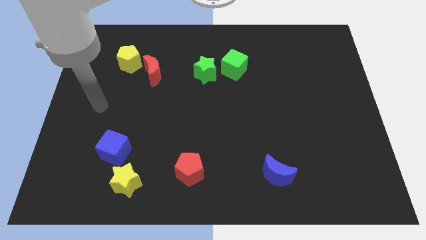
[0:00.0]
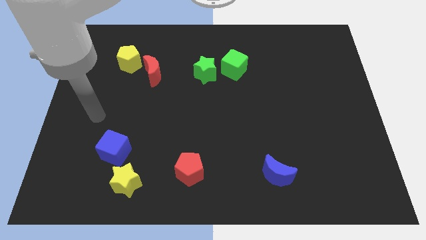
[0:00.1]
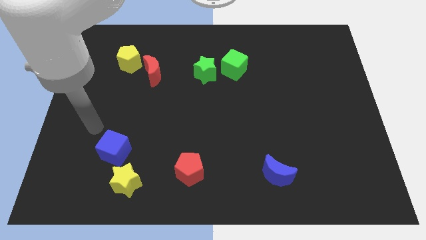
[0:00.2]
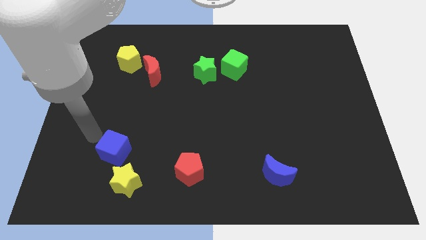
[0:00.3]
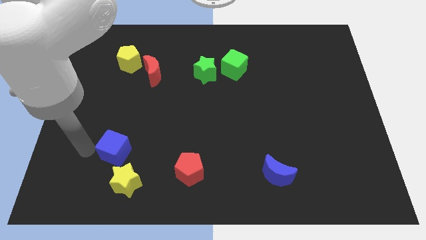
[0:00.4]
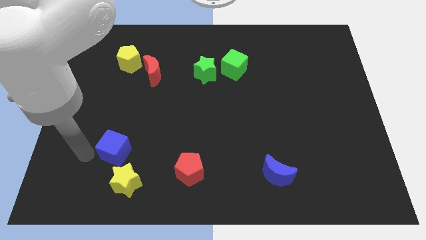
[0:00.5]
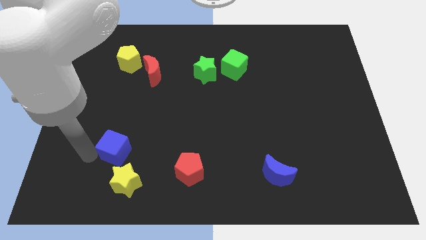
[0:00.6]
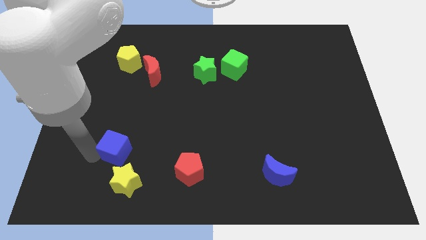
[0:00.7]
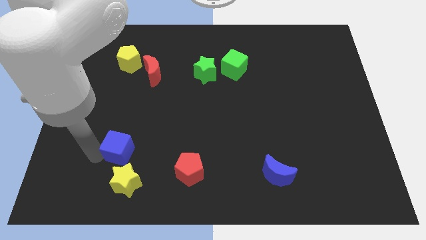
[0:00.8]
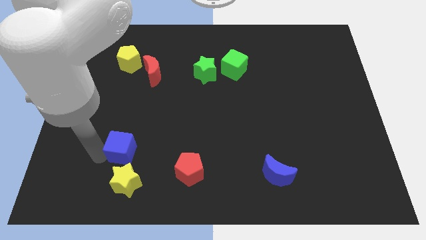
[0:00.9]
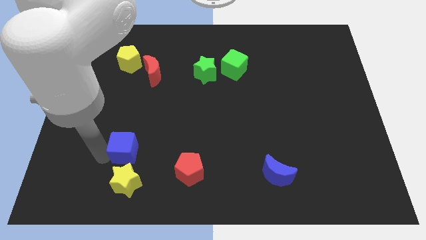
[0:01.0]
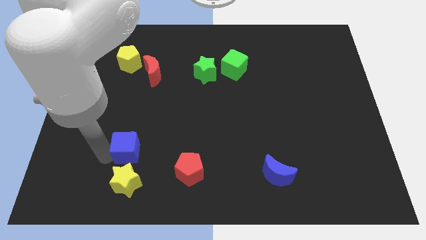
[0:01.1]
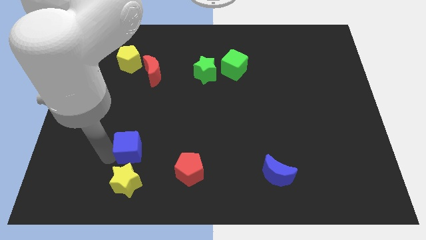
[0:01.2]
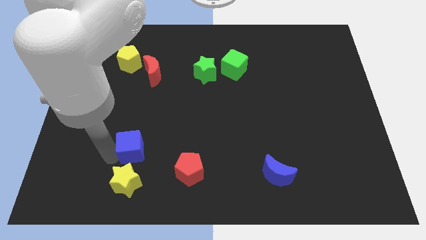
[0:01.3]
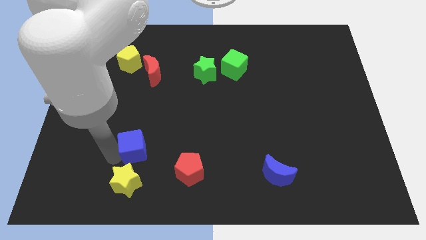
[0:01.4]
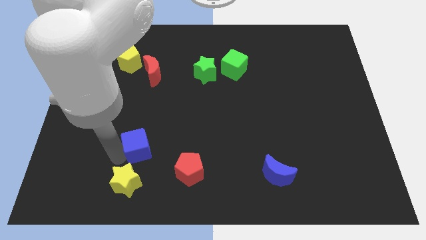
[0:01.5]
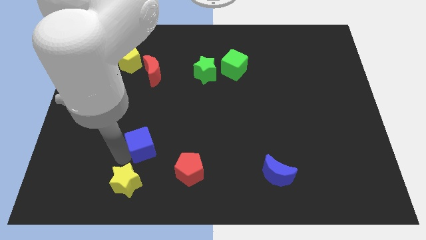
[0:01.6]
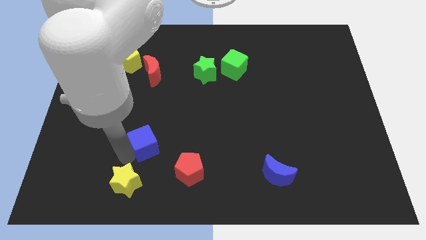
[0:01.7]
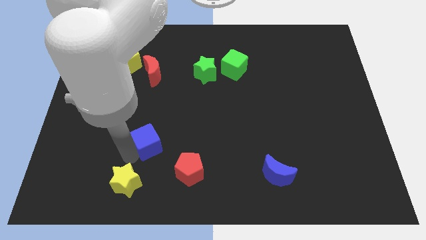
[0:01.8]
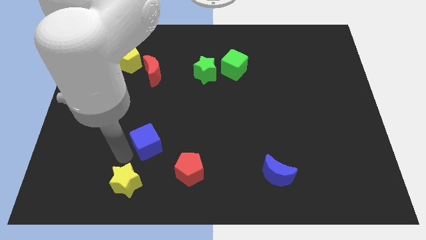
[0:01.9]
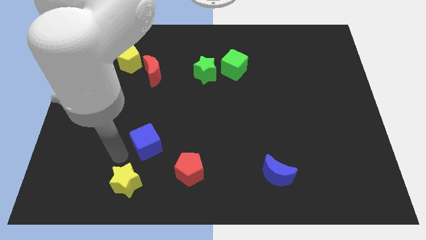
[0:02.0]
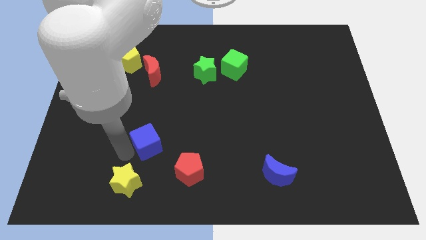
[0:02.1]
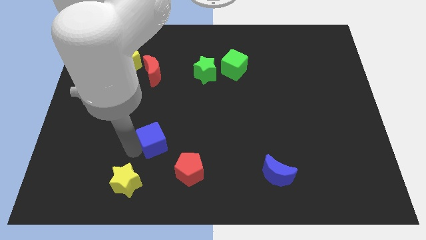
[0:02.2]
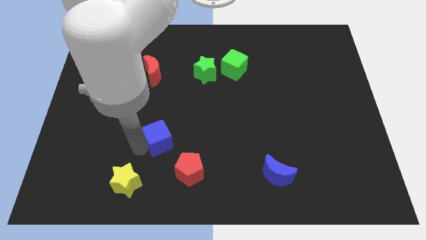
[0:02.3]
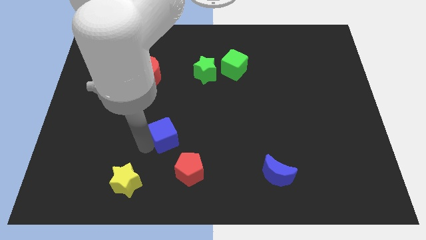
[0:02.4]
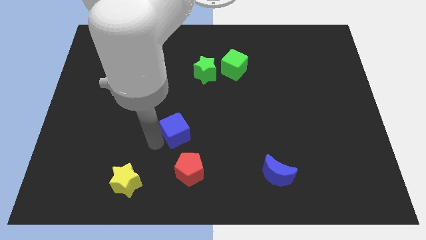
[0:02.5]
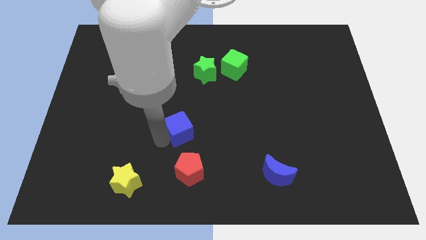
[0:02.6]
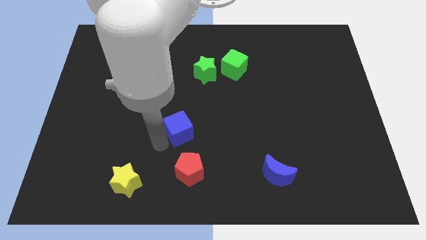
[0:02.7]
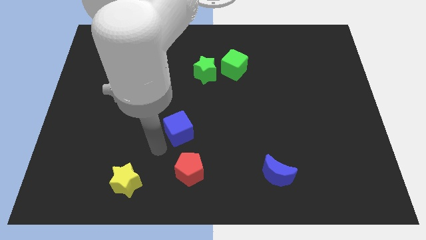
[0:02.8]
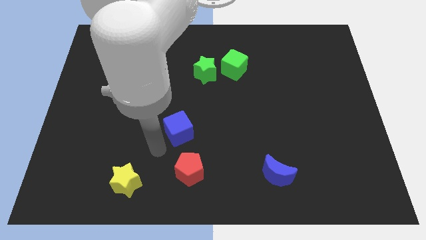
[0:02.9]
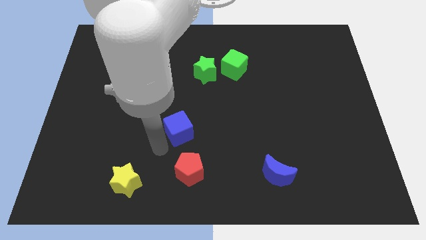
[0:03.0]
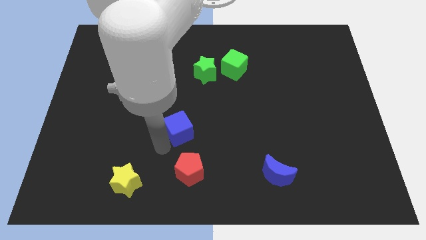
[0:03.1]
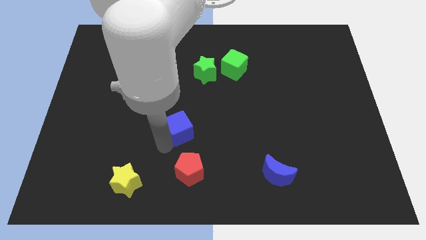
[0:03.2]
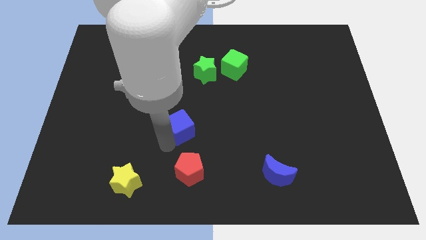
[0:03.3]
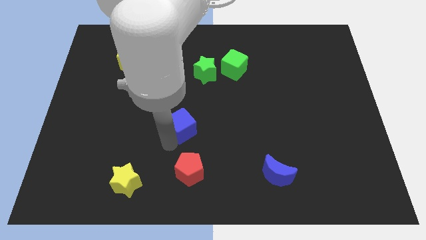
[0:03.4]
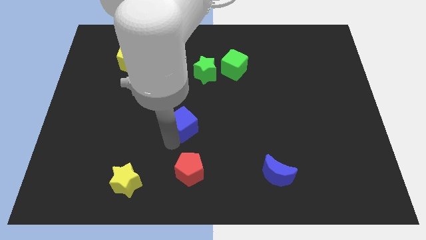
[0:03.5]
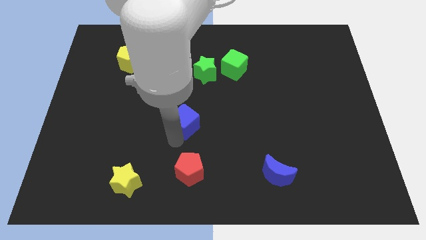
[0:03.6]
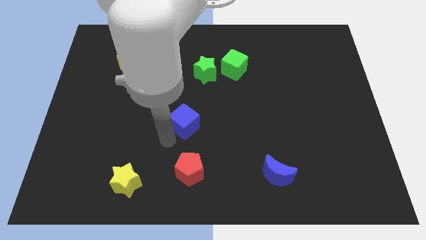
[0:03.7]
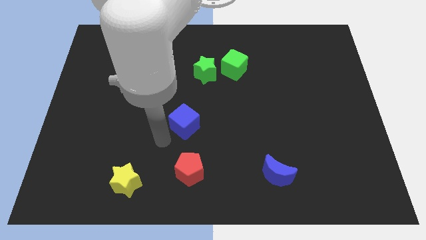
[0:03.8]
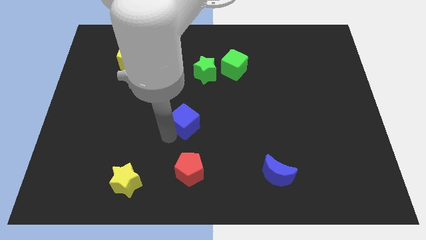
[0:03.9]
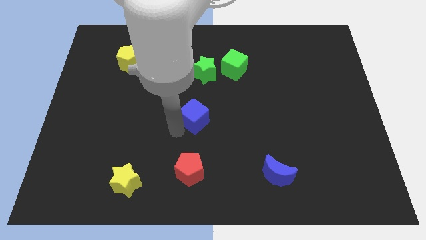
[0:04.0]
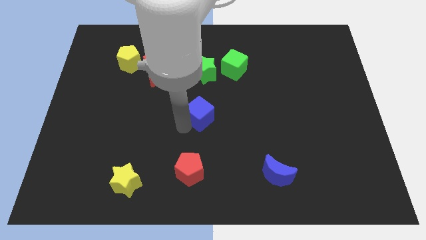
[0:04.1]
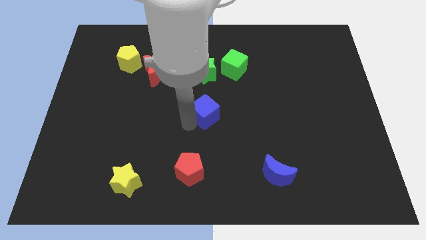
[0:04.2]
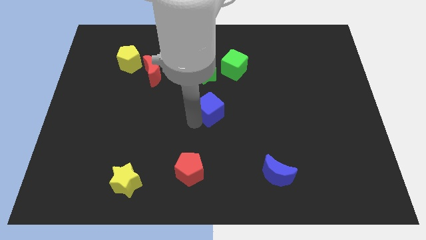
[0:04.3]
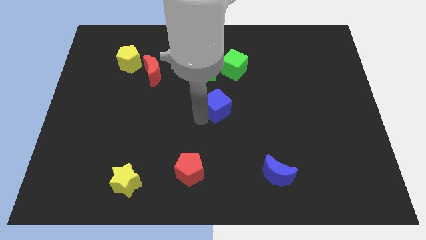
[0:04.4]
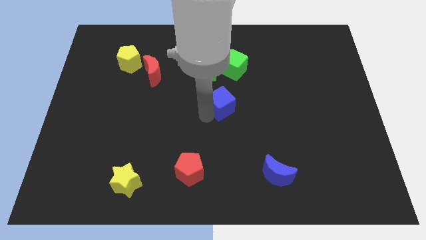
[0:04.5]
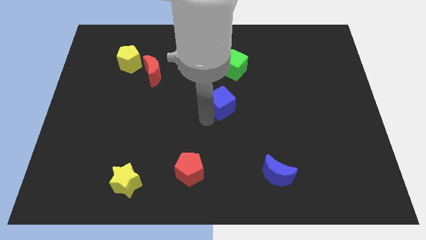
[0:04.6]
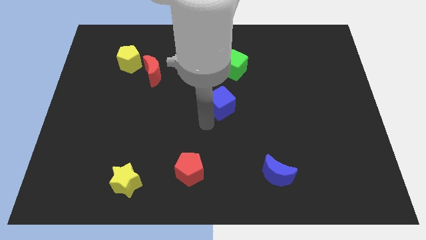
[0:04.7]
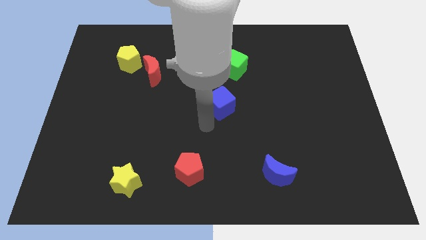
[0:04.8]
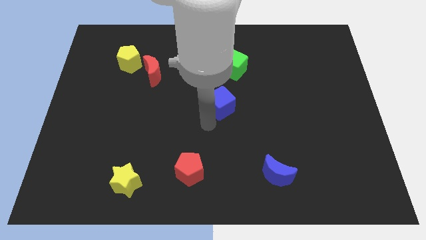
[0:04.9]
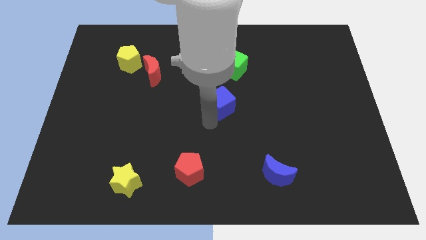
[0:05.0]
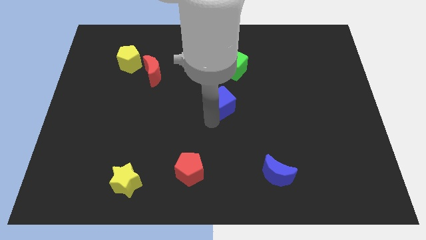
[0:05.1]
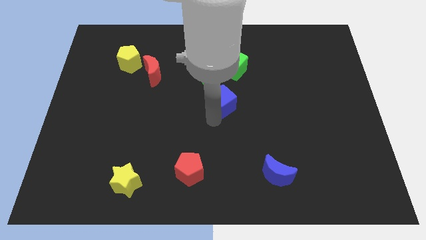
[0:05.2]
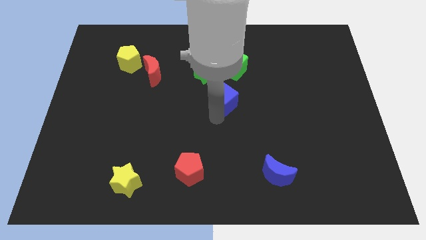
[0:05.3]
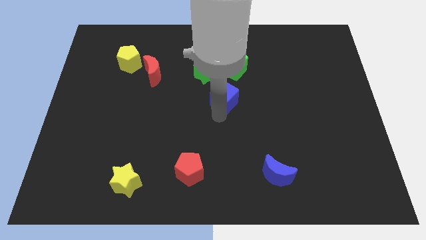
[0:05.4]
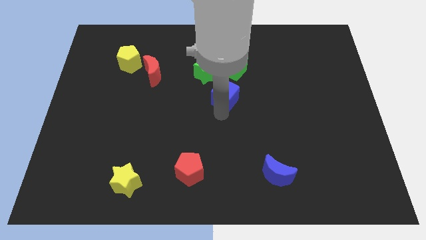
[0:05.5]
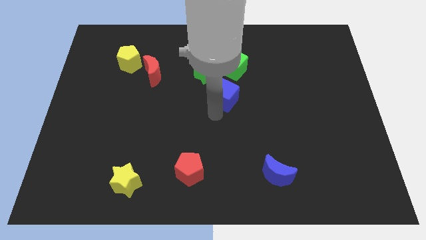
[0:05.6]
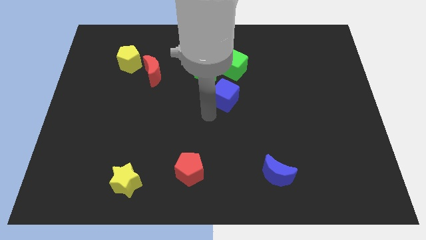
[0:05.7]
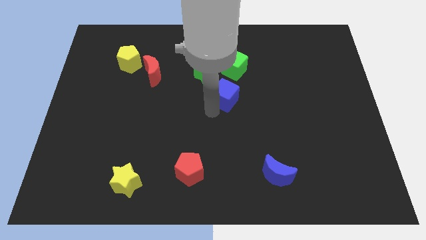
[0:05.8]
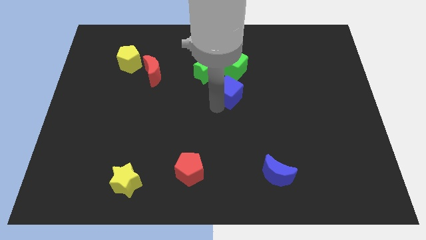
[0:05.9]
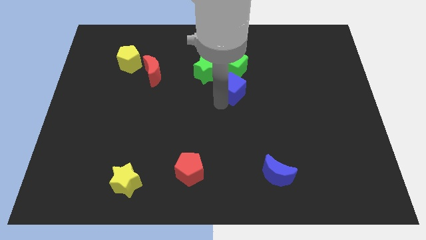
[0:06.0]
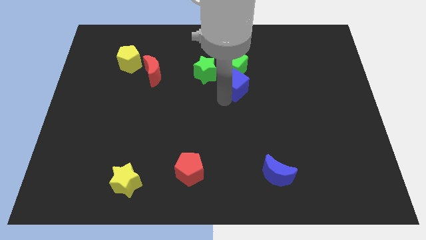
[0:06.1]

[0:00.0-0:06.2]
slide the blue cube to the right of the green star

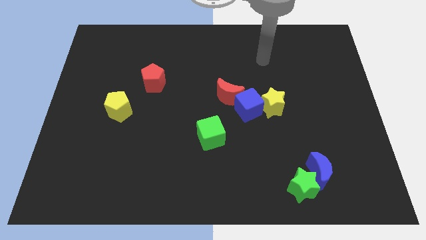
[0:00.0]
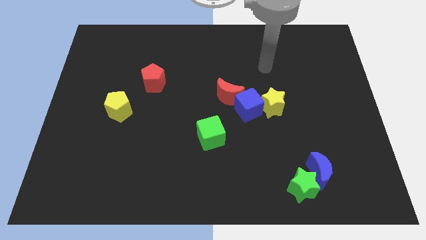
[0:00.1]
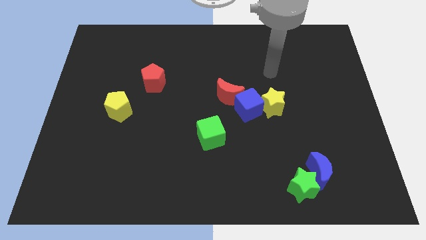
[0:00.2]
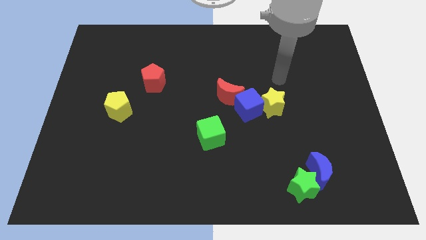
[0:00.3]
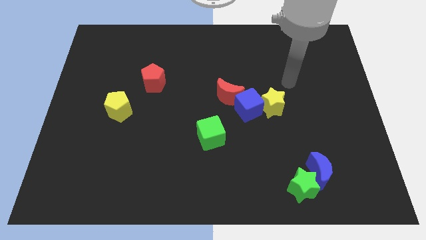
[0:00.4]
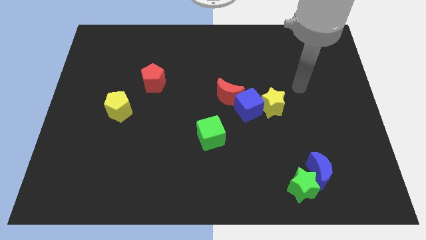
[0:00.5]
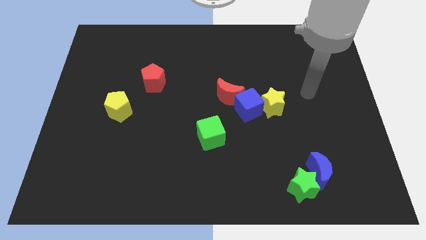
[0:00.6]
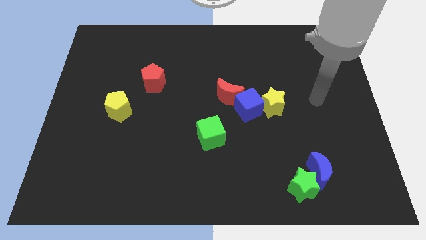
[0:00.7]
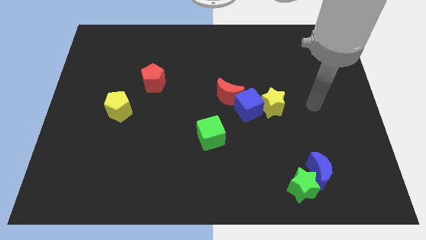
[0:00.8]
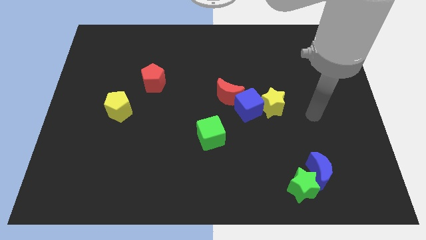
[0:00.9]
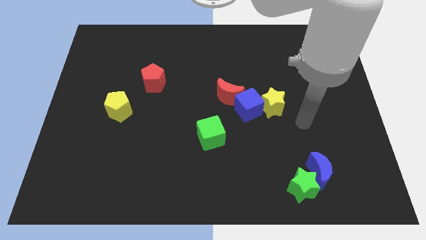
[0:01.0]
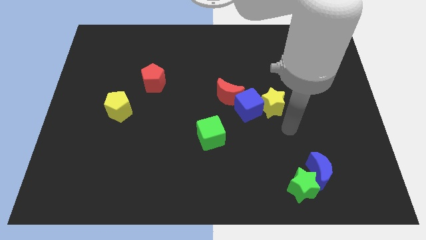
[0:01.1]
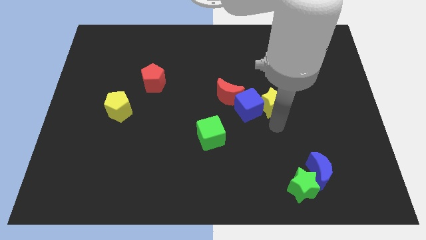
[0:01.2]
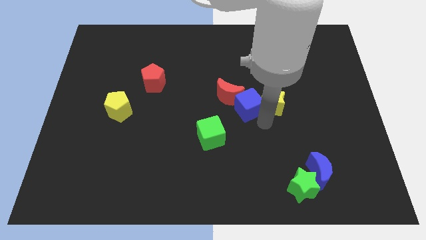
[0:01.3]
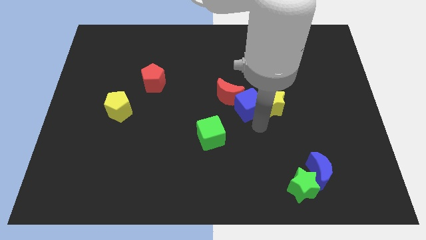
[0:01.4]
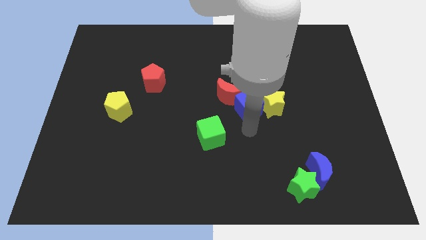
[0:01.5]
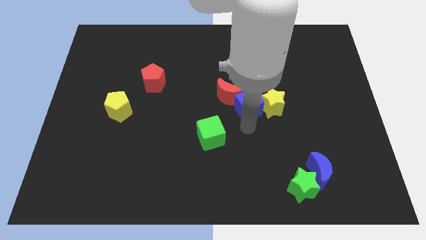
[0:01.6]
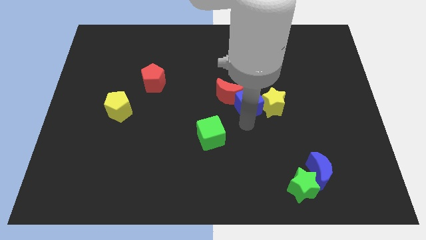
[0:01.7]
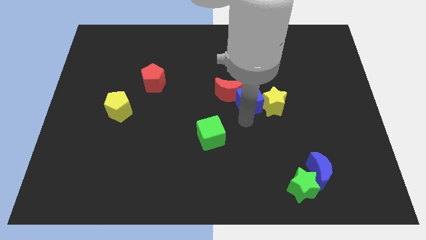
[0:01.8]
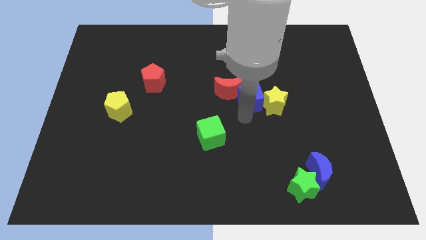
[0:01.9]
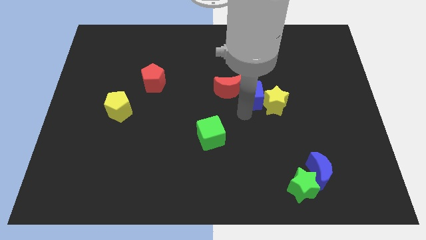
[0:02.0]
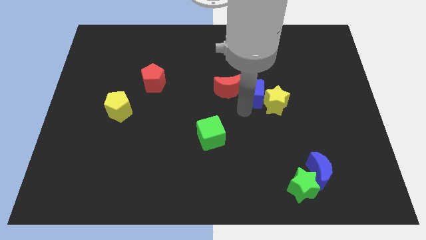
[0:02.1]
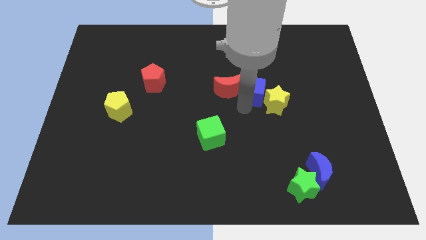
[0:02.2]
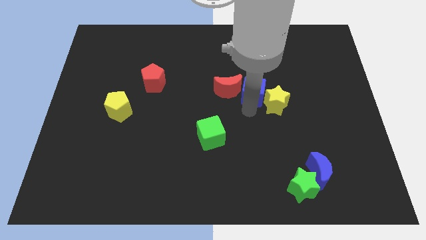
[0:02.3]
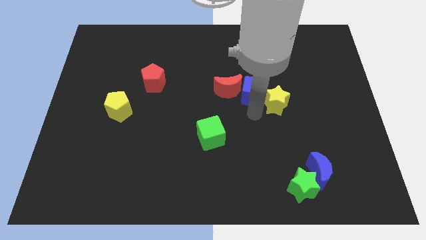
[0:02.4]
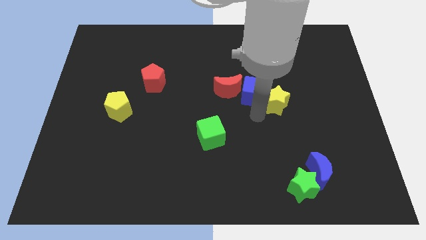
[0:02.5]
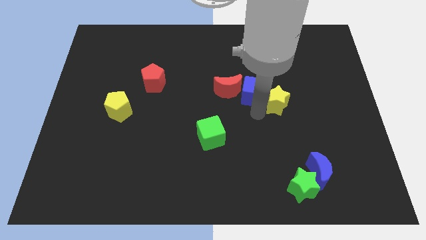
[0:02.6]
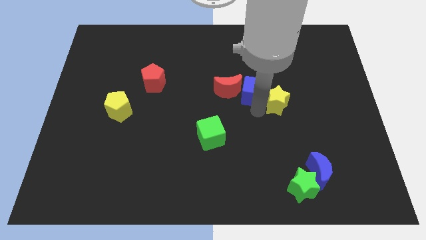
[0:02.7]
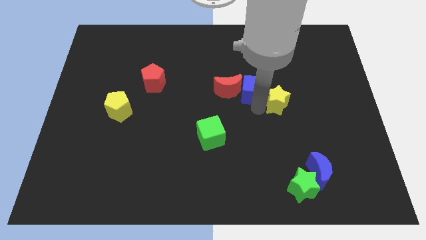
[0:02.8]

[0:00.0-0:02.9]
slide the blue cube to the top right of the red moon
